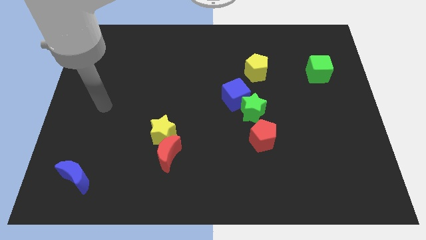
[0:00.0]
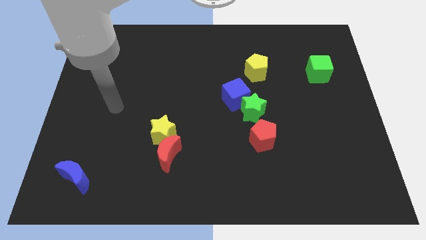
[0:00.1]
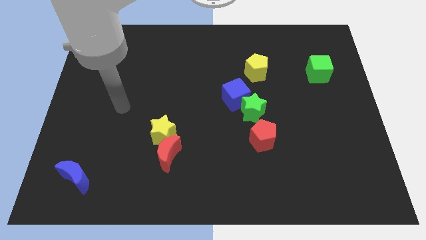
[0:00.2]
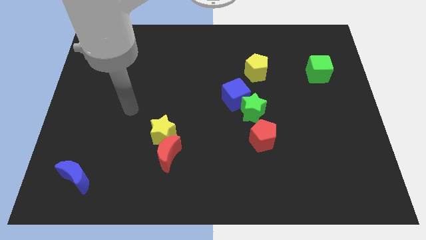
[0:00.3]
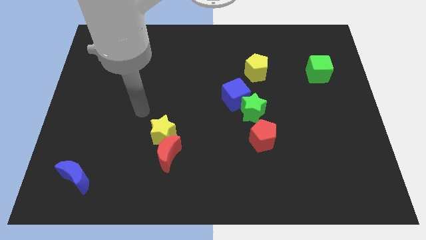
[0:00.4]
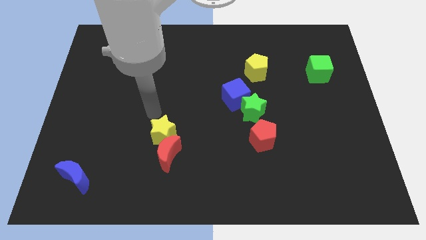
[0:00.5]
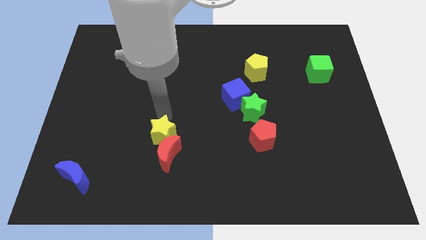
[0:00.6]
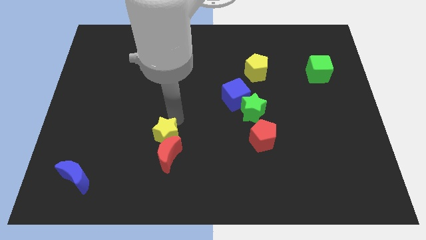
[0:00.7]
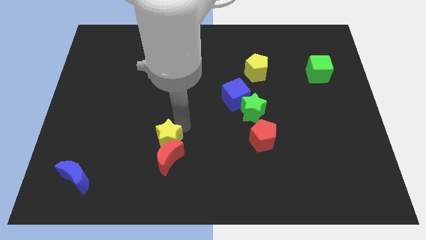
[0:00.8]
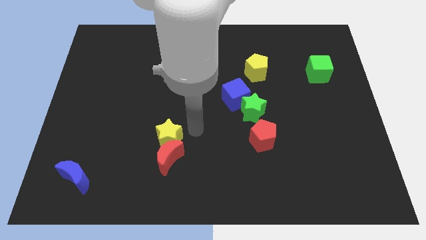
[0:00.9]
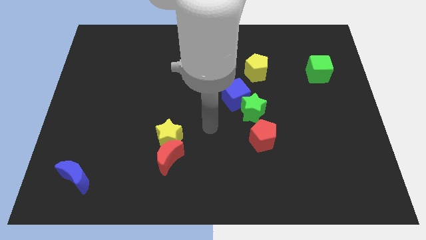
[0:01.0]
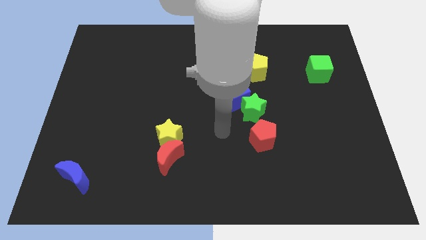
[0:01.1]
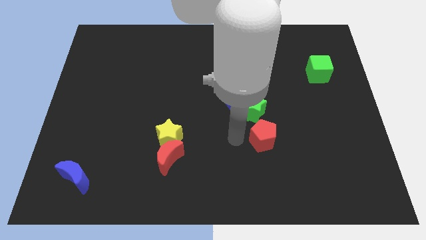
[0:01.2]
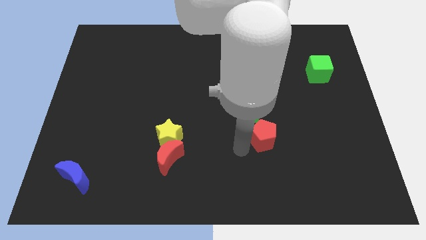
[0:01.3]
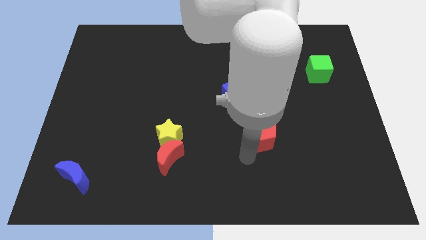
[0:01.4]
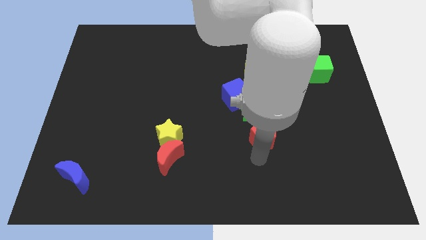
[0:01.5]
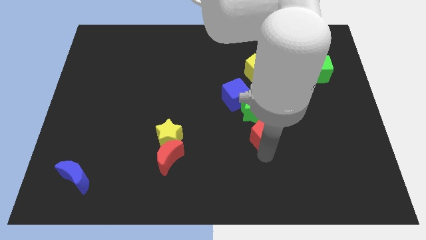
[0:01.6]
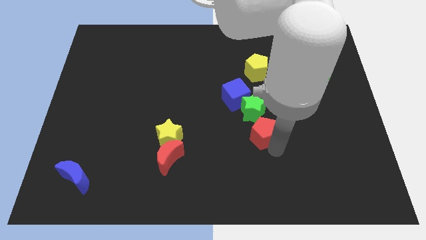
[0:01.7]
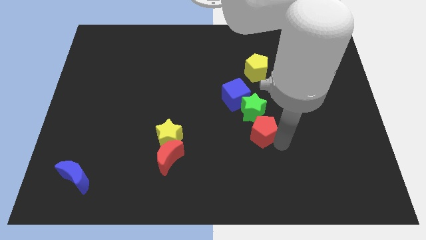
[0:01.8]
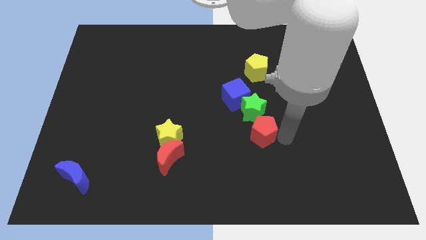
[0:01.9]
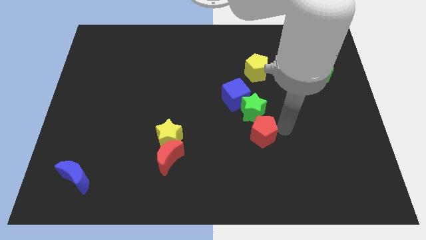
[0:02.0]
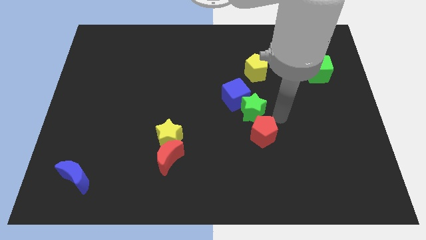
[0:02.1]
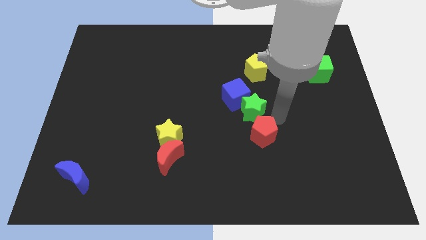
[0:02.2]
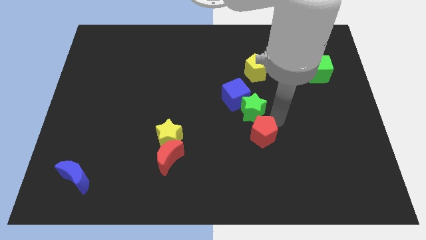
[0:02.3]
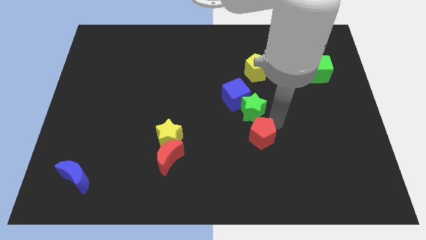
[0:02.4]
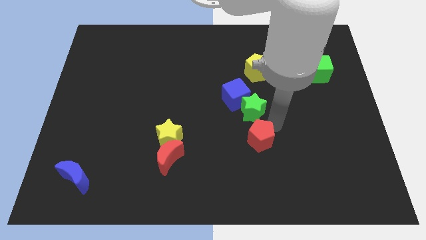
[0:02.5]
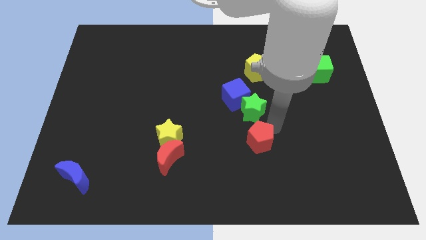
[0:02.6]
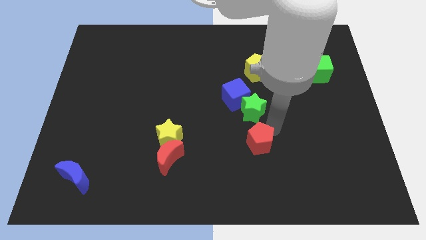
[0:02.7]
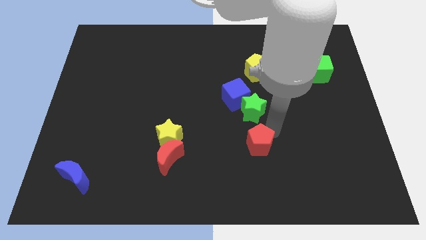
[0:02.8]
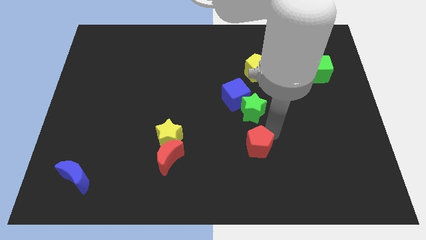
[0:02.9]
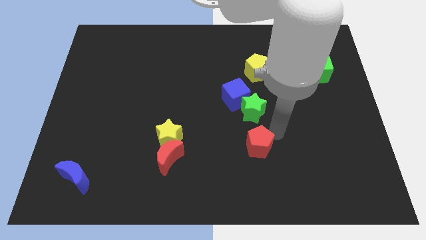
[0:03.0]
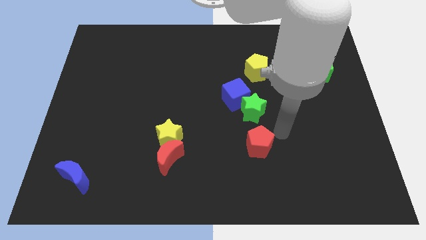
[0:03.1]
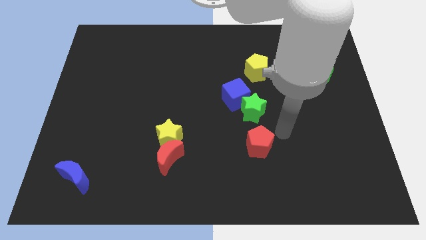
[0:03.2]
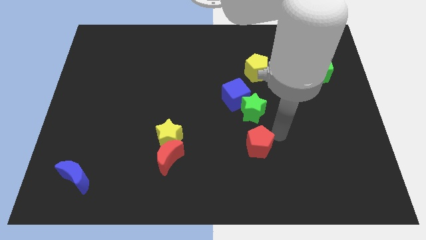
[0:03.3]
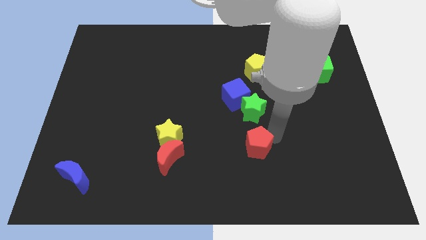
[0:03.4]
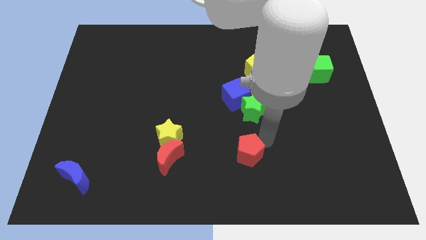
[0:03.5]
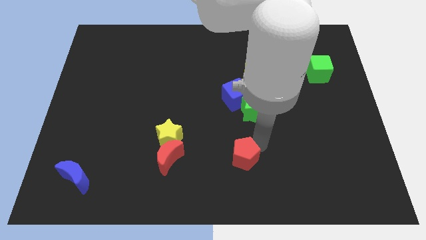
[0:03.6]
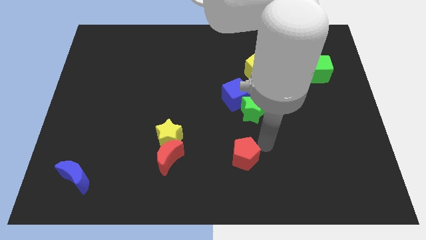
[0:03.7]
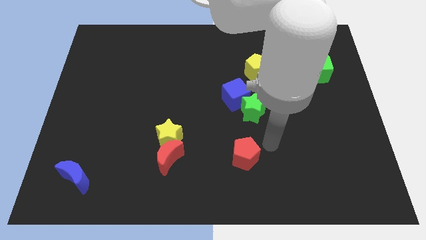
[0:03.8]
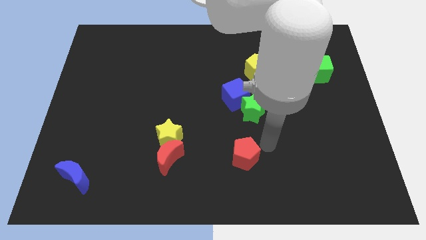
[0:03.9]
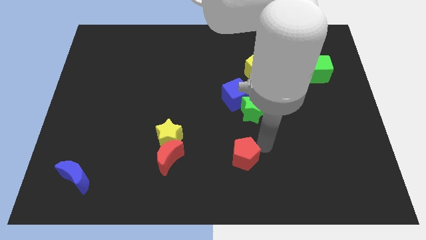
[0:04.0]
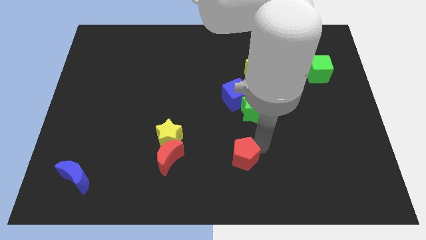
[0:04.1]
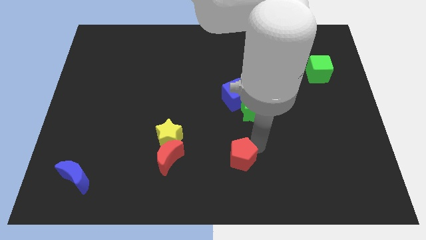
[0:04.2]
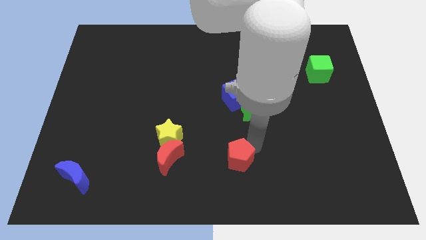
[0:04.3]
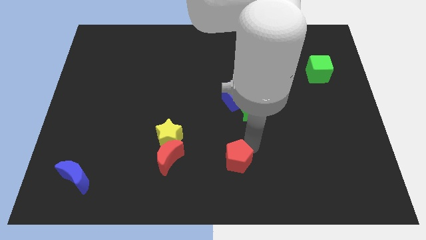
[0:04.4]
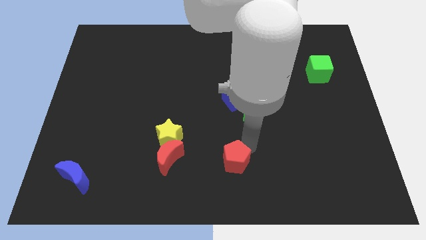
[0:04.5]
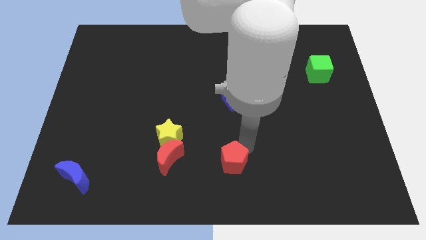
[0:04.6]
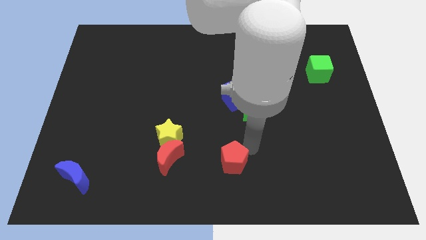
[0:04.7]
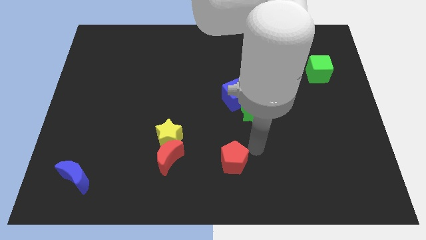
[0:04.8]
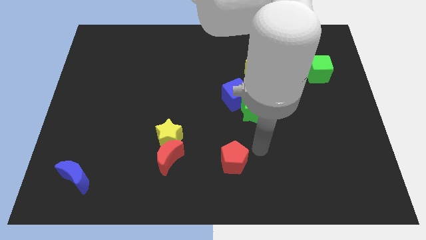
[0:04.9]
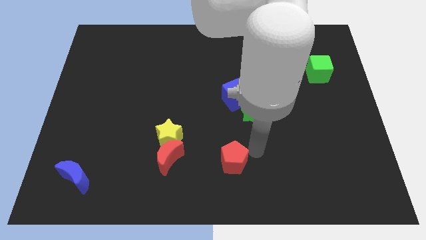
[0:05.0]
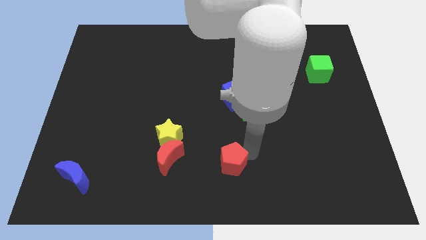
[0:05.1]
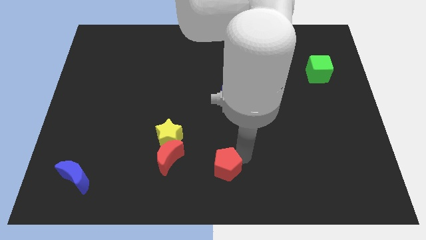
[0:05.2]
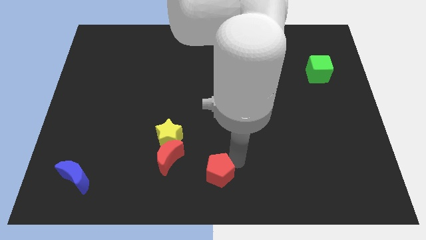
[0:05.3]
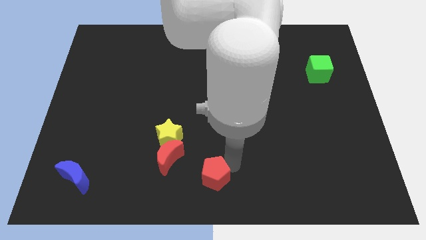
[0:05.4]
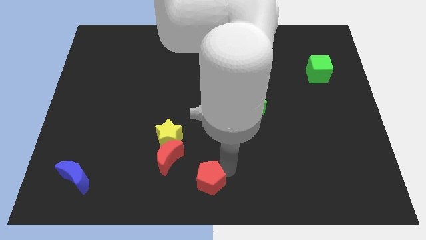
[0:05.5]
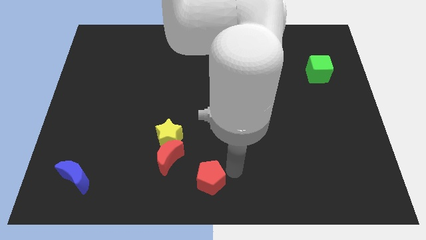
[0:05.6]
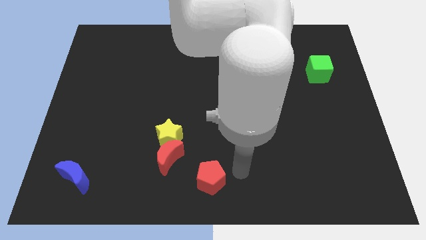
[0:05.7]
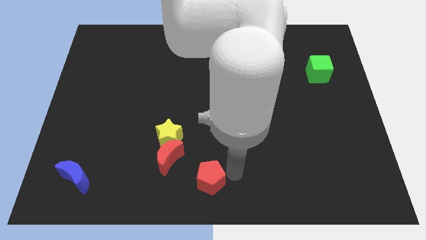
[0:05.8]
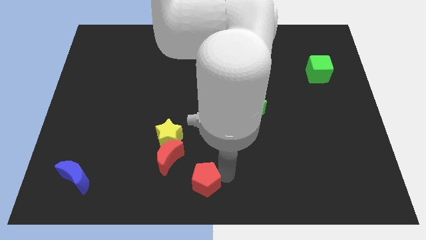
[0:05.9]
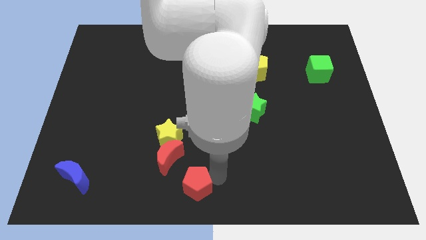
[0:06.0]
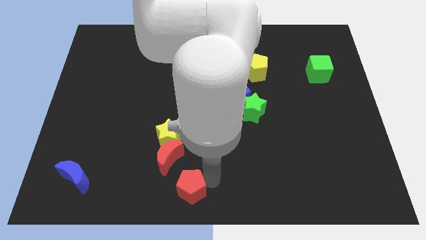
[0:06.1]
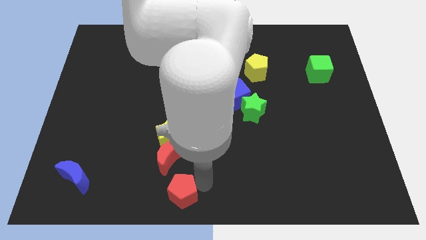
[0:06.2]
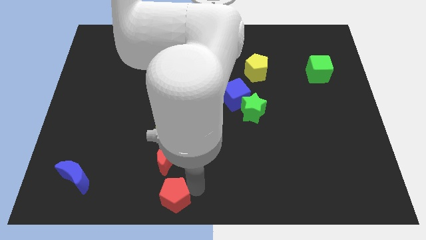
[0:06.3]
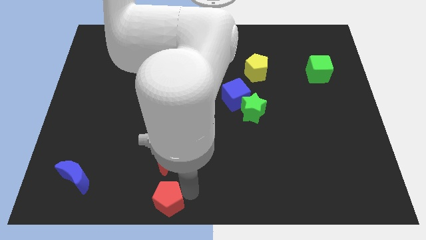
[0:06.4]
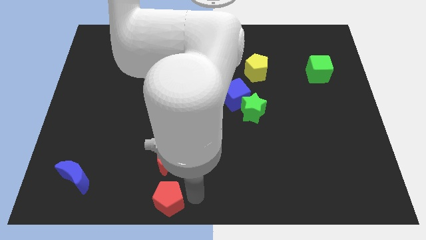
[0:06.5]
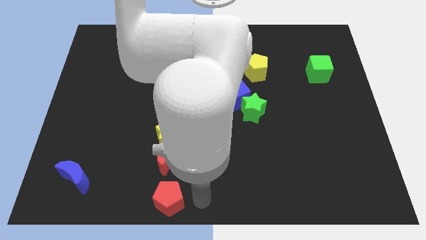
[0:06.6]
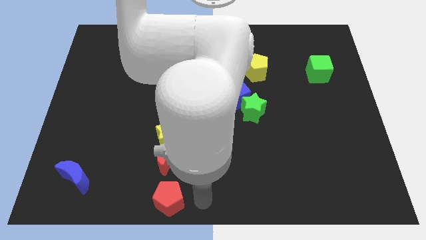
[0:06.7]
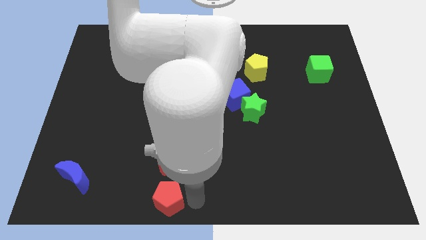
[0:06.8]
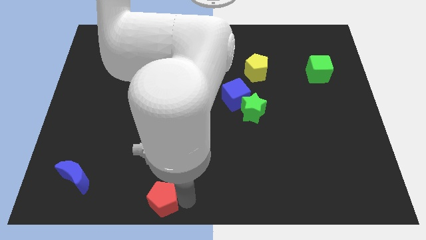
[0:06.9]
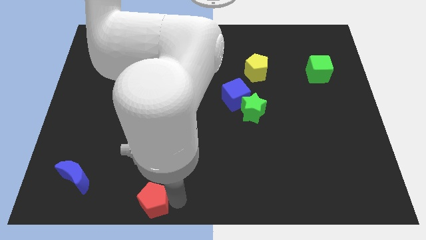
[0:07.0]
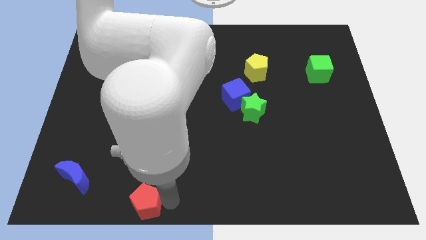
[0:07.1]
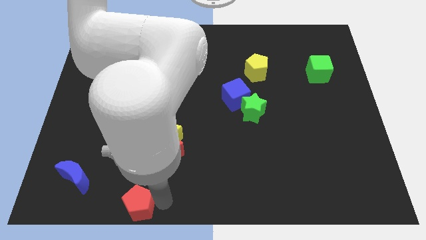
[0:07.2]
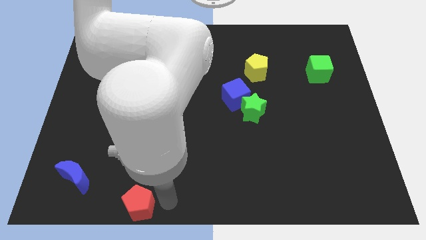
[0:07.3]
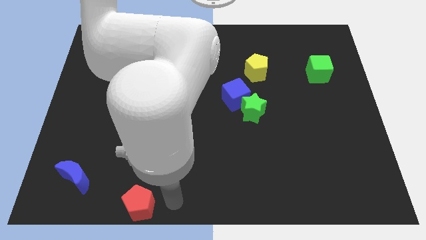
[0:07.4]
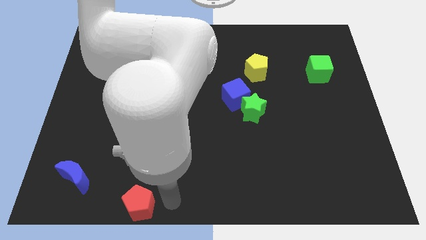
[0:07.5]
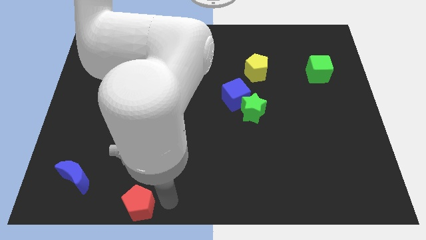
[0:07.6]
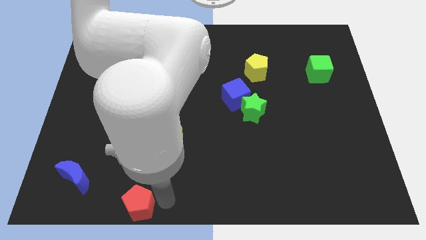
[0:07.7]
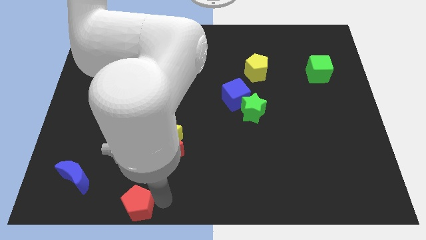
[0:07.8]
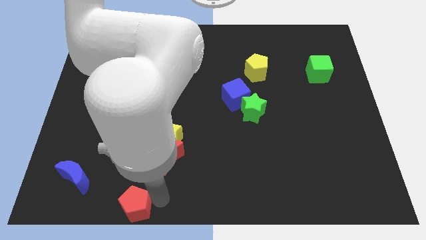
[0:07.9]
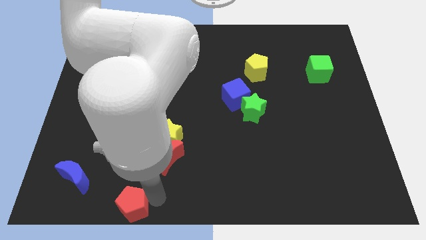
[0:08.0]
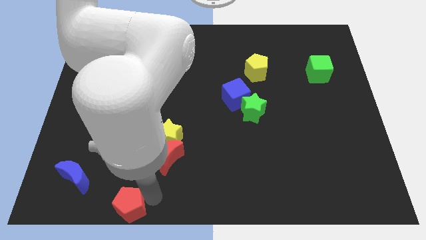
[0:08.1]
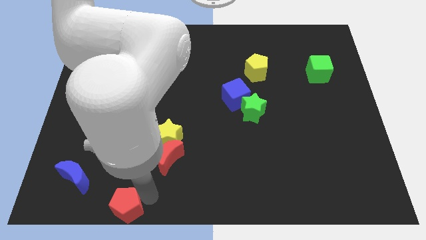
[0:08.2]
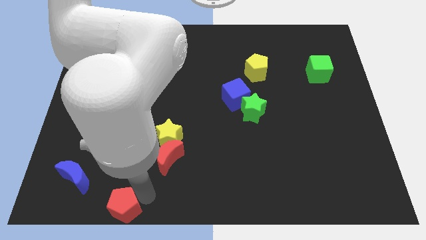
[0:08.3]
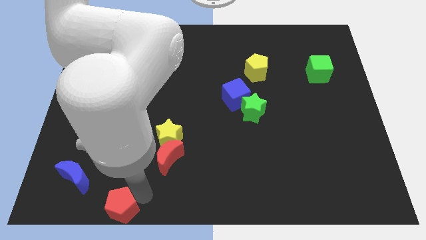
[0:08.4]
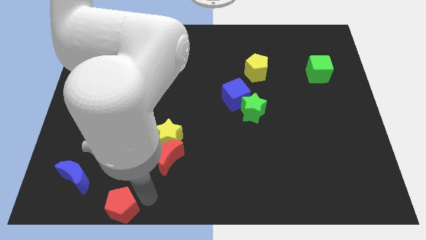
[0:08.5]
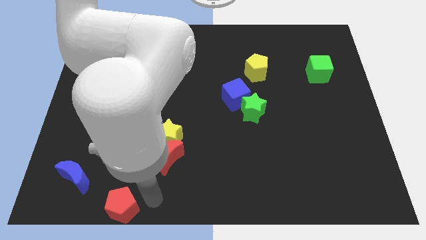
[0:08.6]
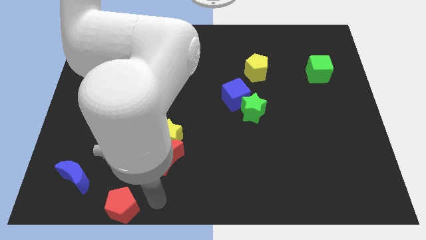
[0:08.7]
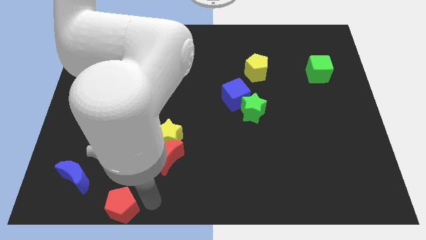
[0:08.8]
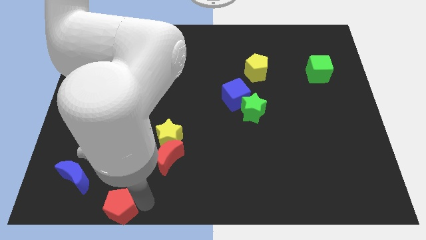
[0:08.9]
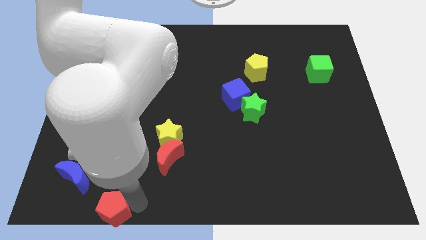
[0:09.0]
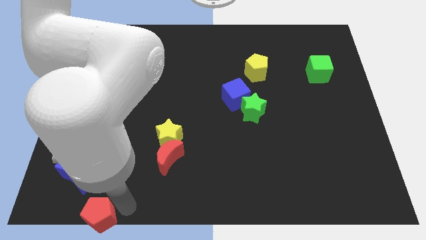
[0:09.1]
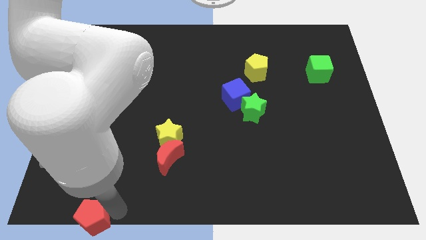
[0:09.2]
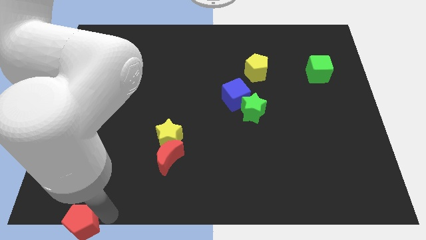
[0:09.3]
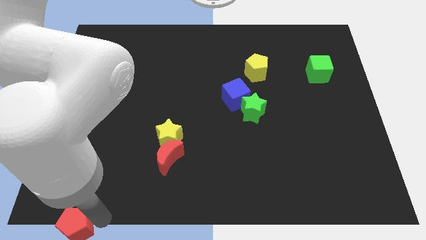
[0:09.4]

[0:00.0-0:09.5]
push the red pentagon to the lower left corner
